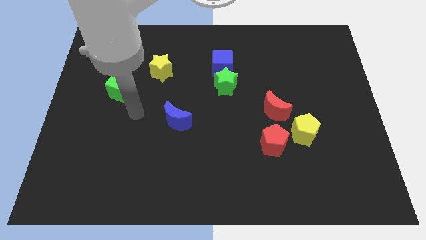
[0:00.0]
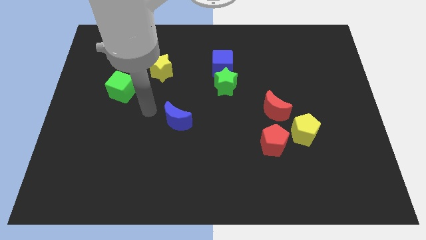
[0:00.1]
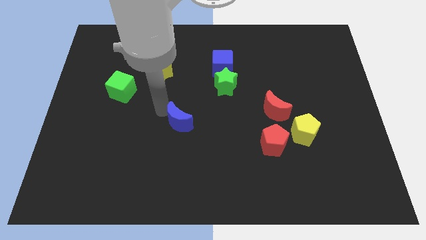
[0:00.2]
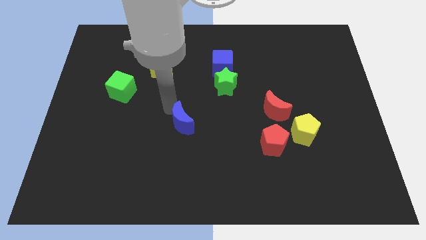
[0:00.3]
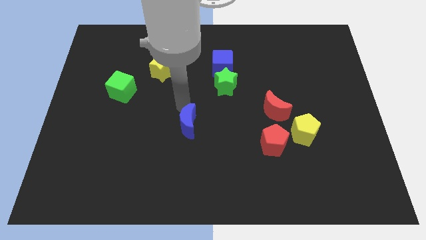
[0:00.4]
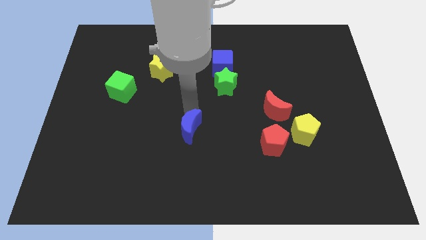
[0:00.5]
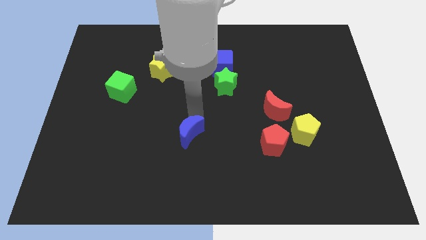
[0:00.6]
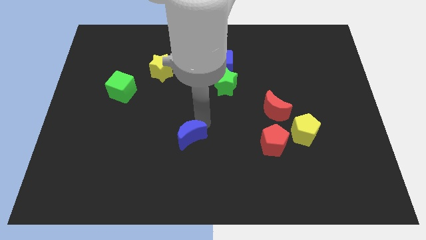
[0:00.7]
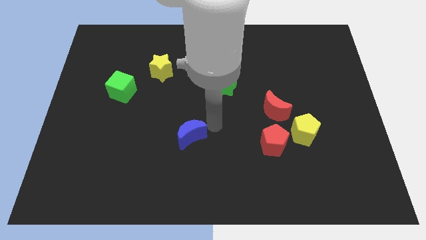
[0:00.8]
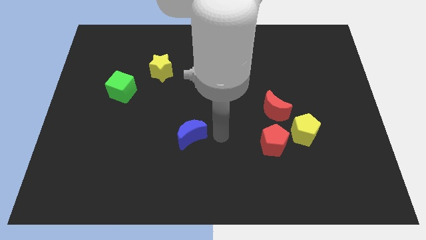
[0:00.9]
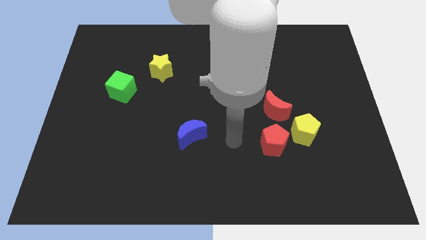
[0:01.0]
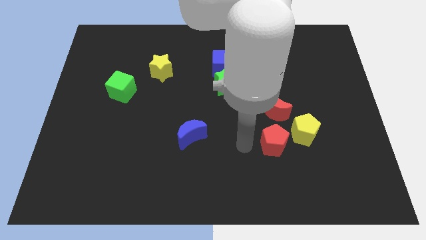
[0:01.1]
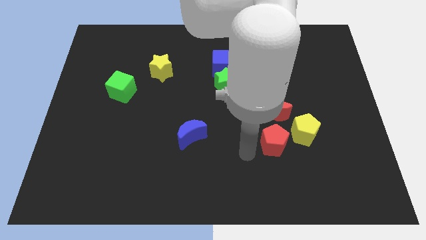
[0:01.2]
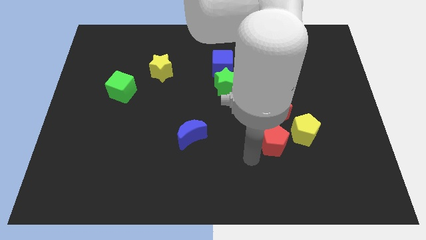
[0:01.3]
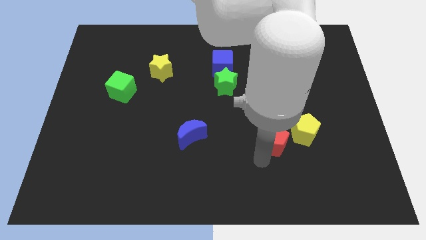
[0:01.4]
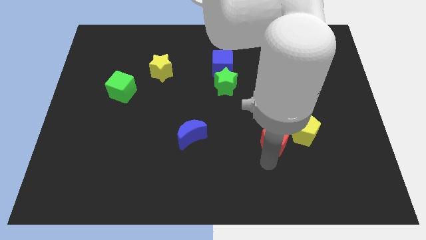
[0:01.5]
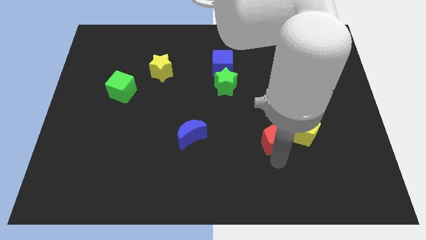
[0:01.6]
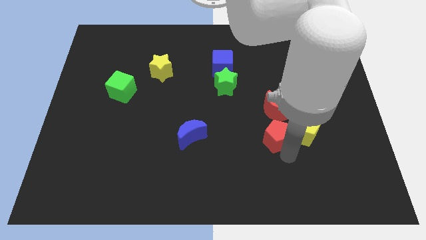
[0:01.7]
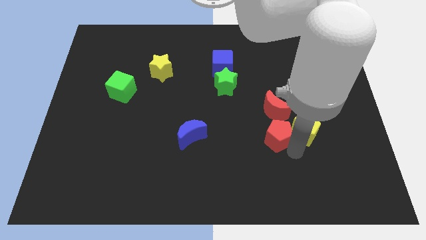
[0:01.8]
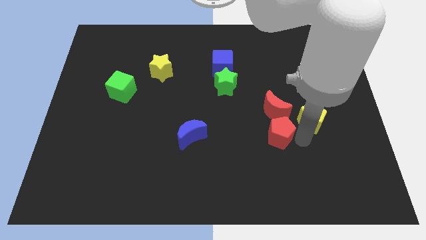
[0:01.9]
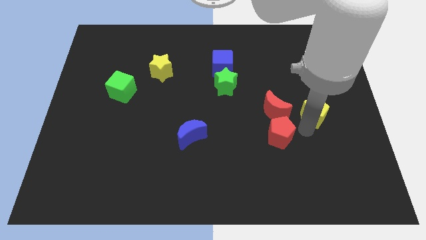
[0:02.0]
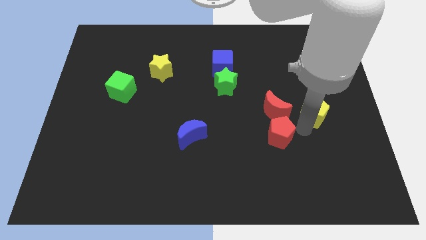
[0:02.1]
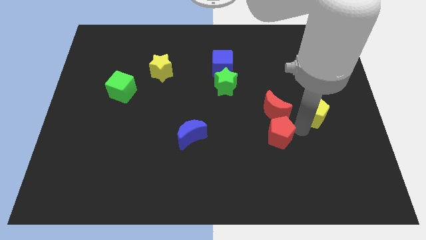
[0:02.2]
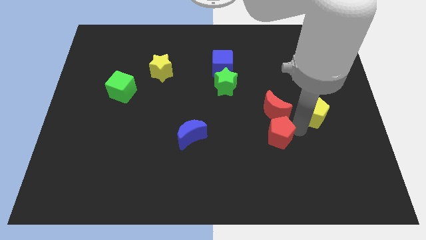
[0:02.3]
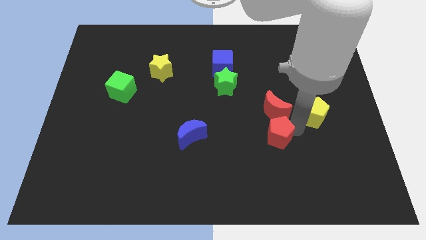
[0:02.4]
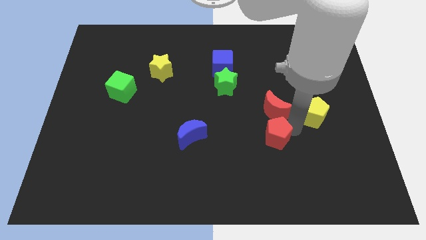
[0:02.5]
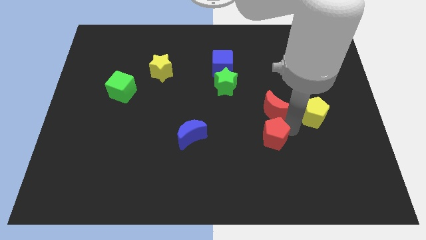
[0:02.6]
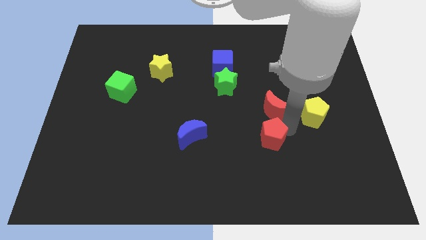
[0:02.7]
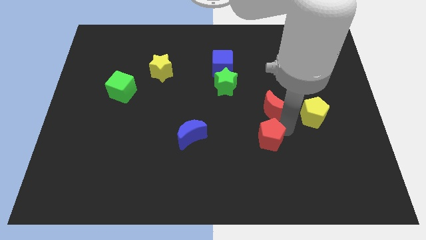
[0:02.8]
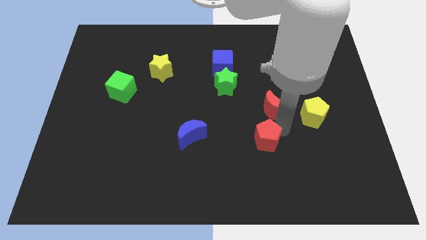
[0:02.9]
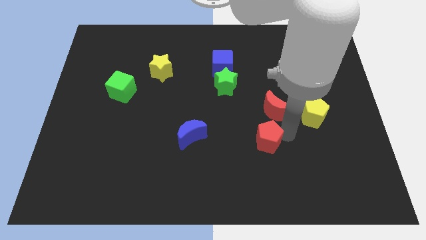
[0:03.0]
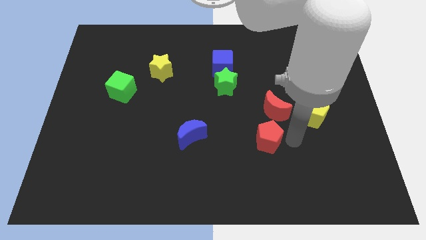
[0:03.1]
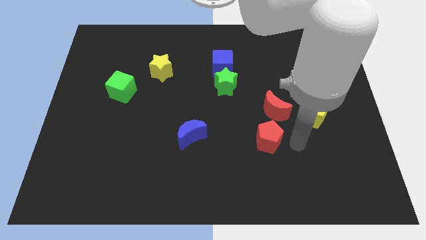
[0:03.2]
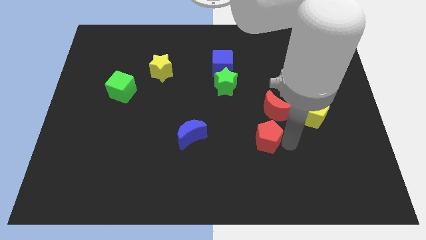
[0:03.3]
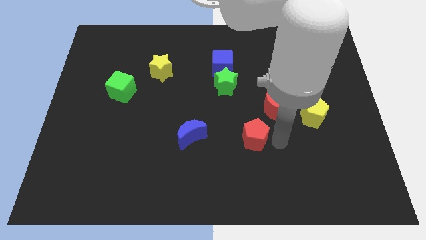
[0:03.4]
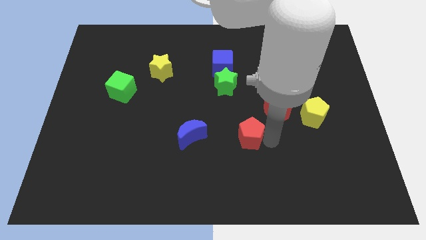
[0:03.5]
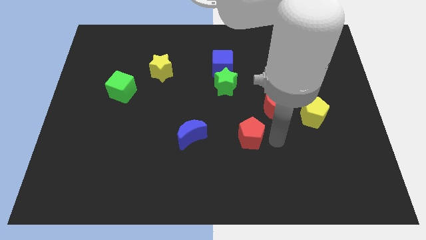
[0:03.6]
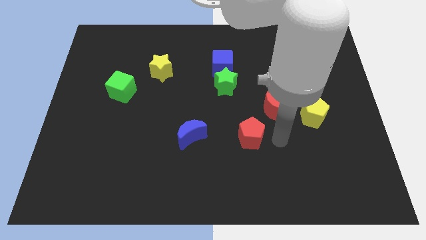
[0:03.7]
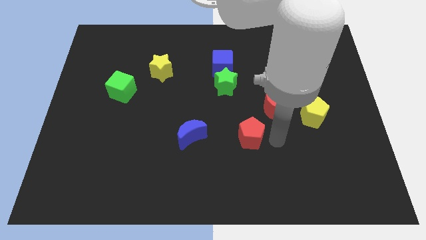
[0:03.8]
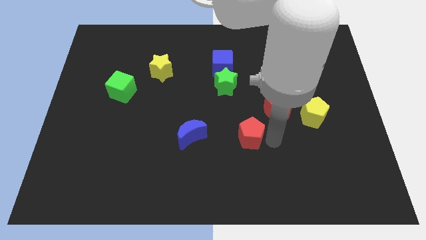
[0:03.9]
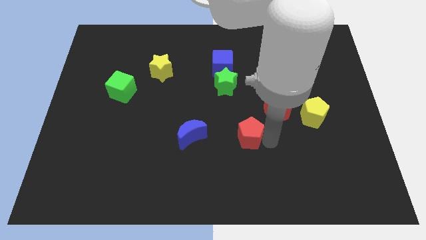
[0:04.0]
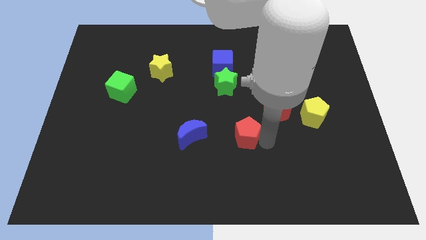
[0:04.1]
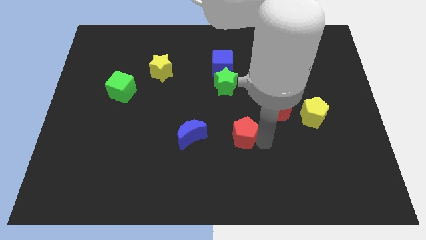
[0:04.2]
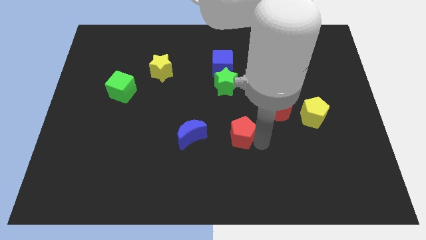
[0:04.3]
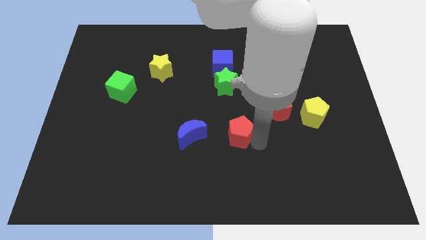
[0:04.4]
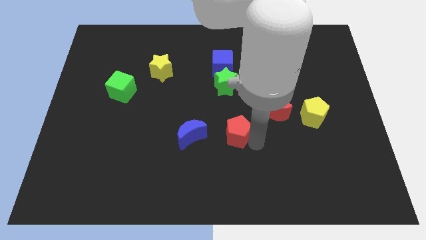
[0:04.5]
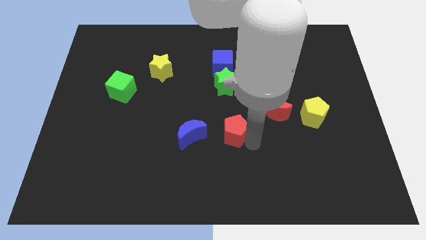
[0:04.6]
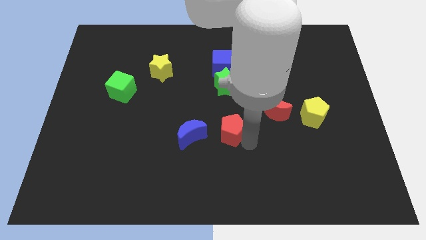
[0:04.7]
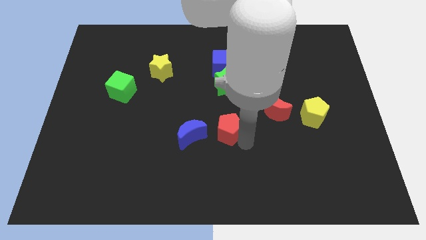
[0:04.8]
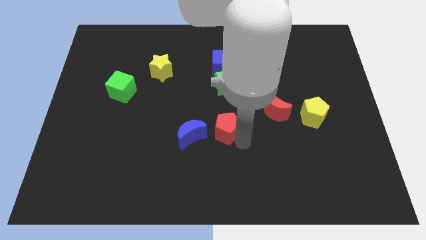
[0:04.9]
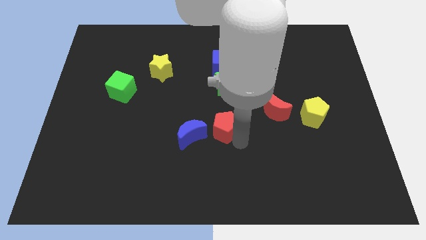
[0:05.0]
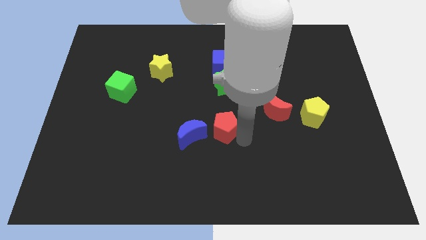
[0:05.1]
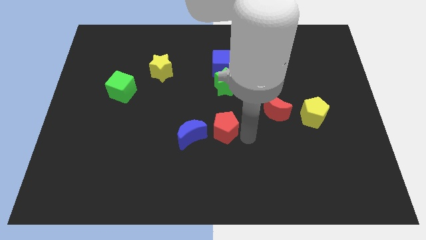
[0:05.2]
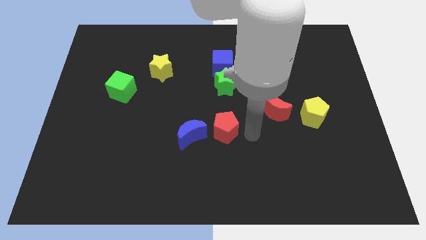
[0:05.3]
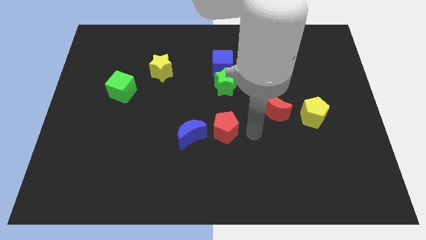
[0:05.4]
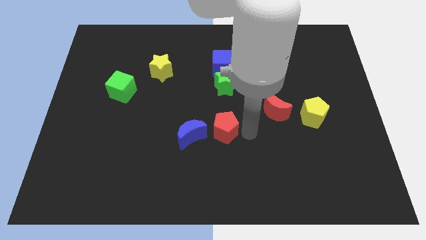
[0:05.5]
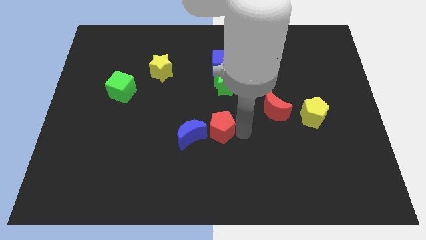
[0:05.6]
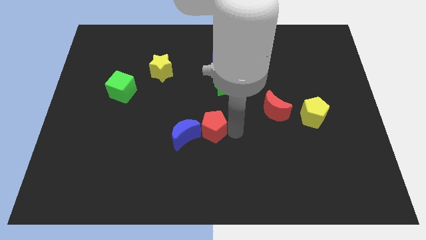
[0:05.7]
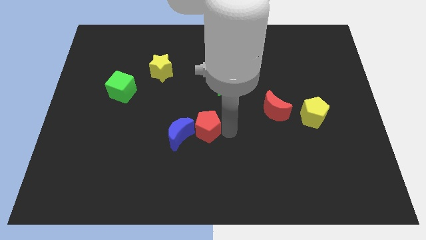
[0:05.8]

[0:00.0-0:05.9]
put the red pentagon close to the blue moon

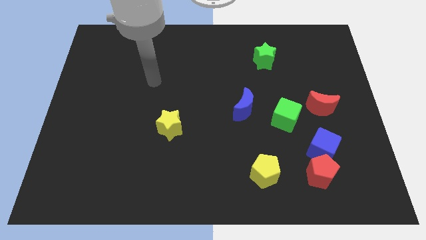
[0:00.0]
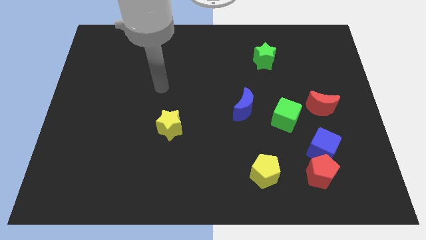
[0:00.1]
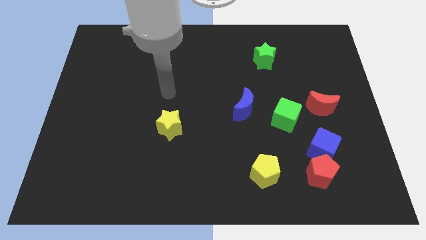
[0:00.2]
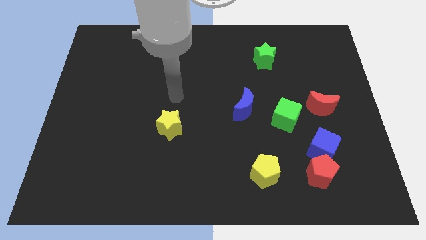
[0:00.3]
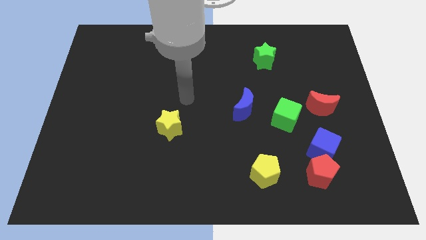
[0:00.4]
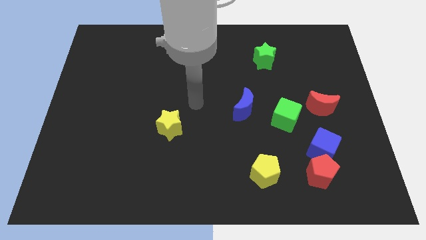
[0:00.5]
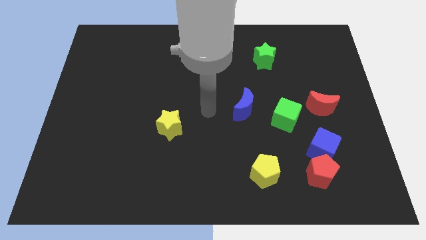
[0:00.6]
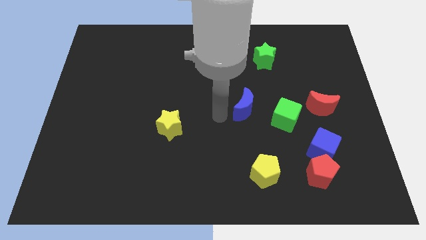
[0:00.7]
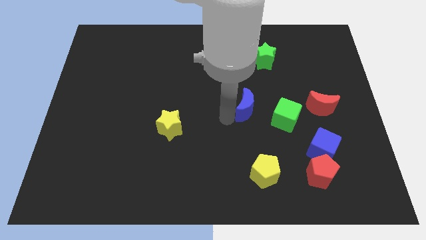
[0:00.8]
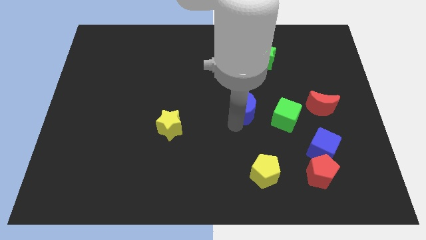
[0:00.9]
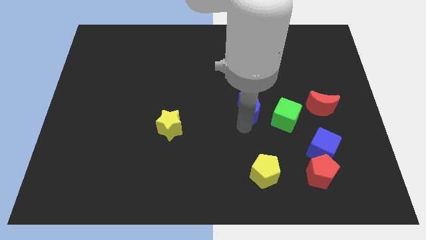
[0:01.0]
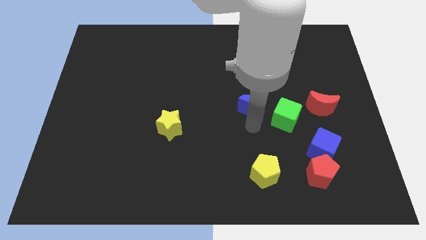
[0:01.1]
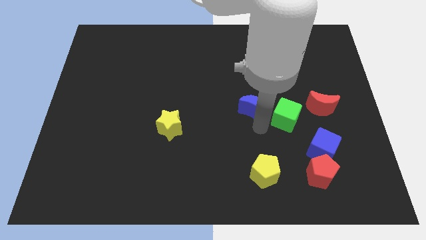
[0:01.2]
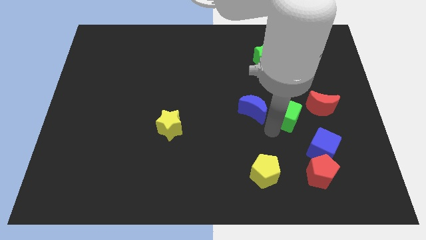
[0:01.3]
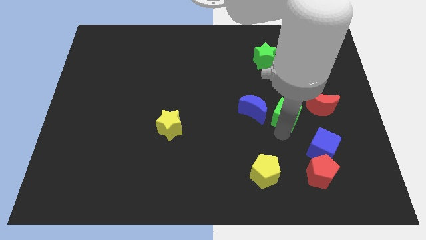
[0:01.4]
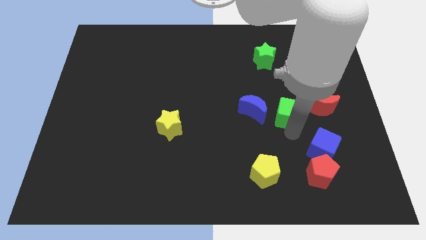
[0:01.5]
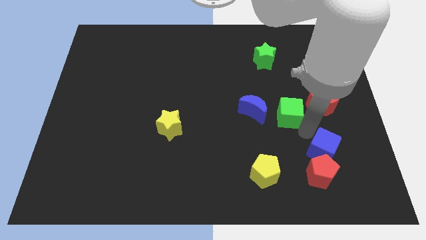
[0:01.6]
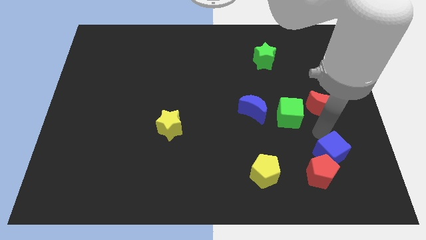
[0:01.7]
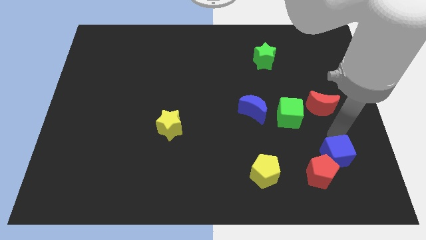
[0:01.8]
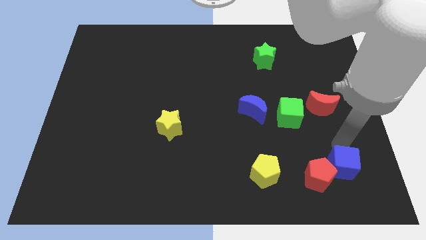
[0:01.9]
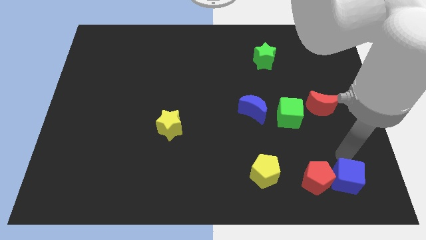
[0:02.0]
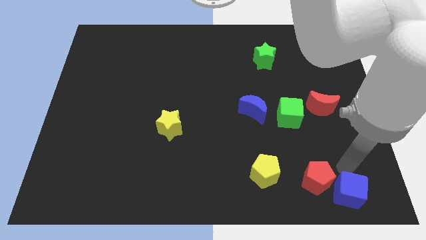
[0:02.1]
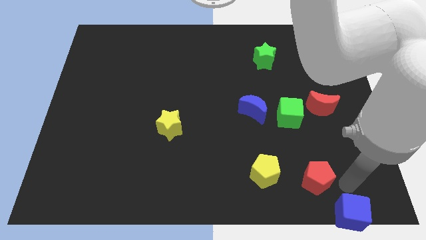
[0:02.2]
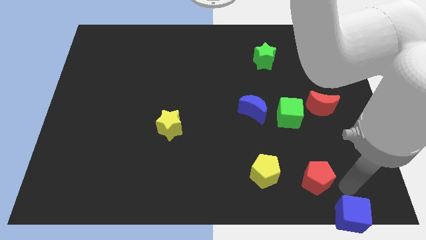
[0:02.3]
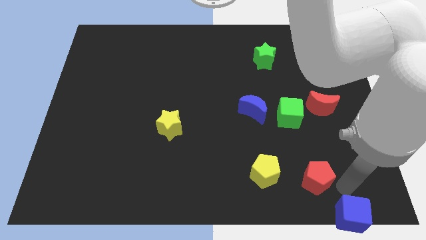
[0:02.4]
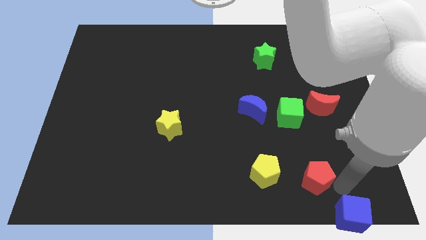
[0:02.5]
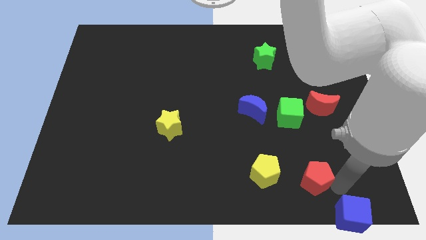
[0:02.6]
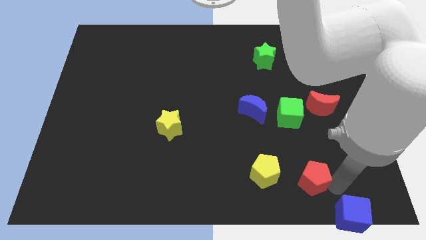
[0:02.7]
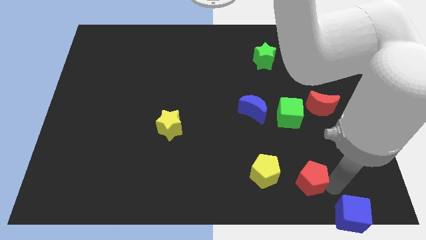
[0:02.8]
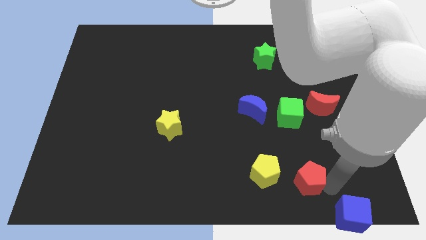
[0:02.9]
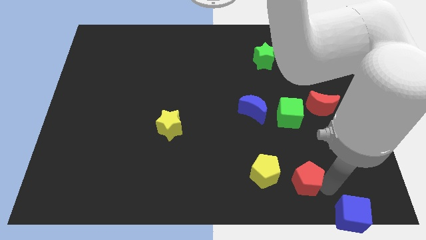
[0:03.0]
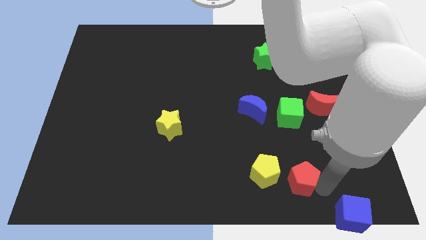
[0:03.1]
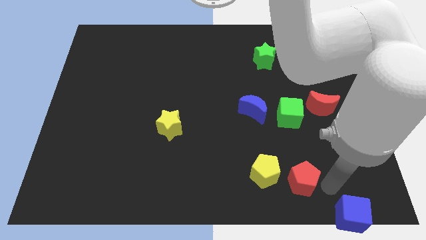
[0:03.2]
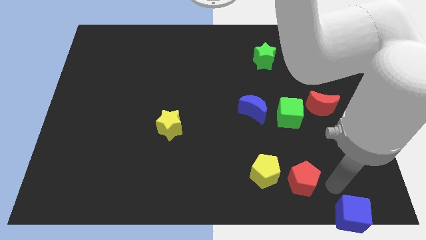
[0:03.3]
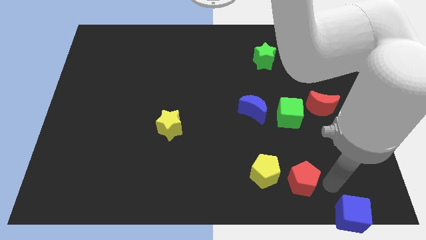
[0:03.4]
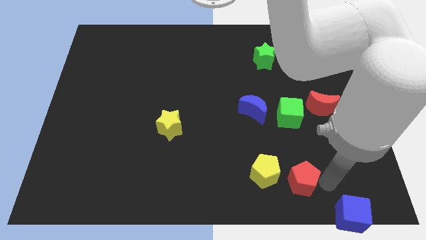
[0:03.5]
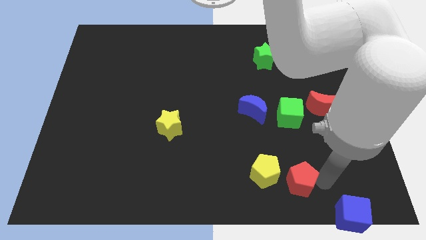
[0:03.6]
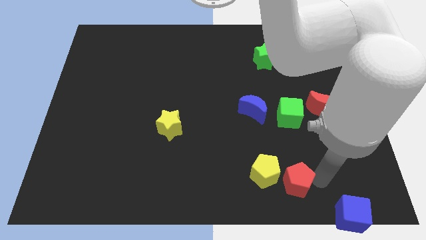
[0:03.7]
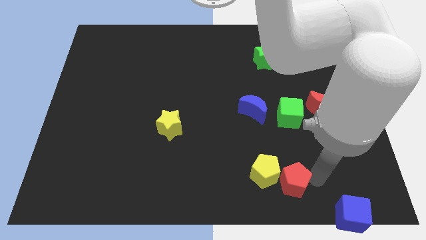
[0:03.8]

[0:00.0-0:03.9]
move the red pentagon close to the yellow pentagon
